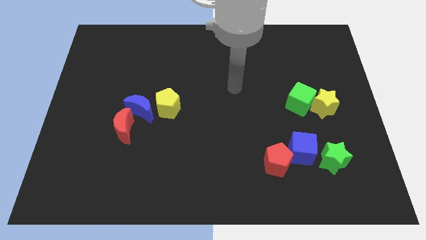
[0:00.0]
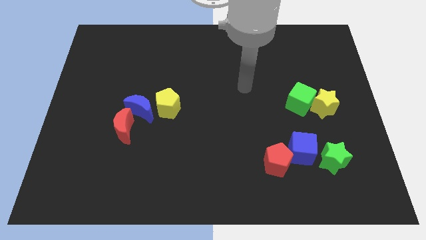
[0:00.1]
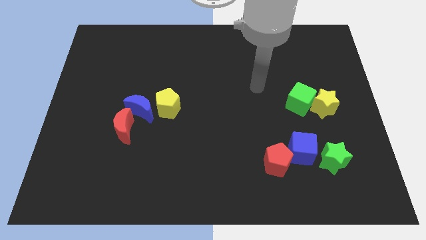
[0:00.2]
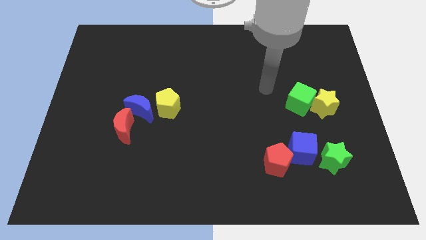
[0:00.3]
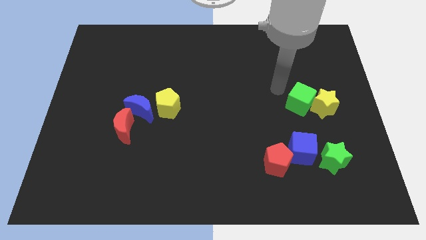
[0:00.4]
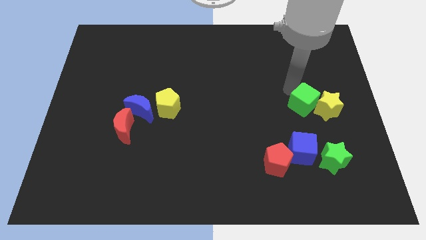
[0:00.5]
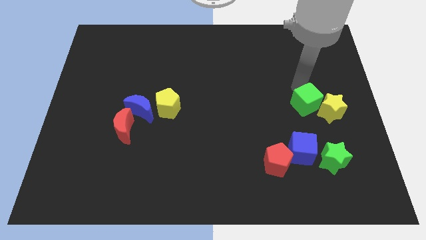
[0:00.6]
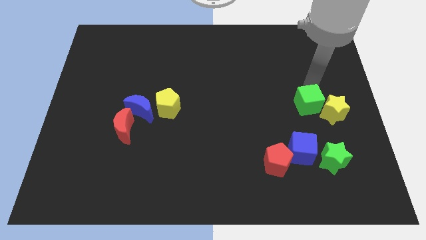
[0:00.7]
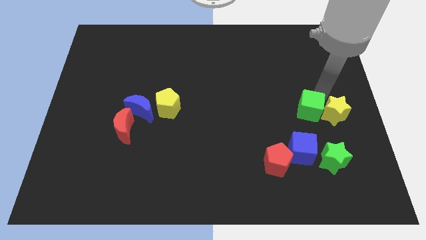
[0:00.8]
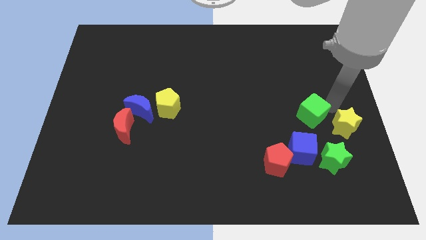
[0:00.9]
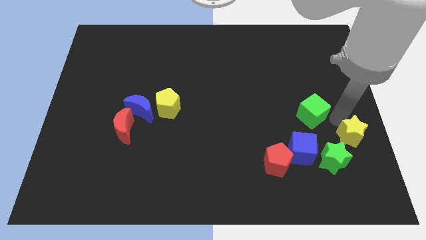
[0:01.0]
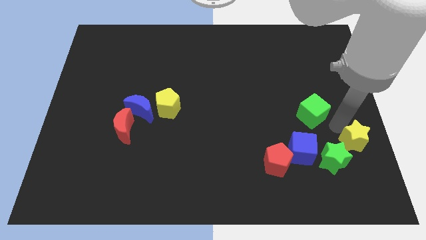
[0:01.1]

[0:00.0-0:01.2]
separate the green cube from the yellow star

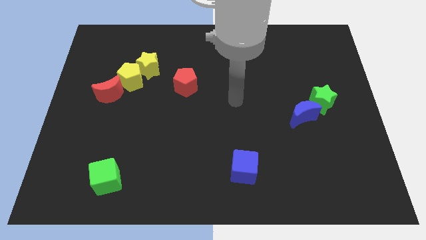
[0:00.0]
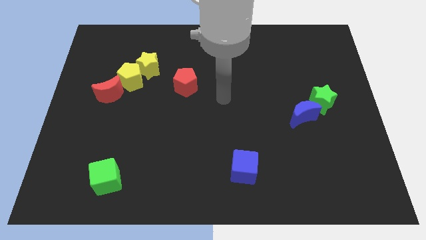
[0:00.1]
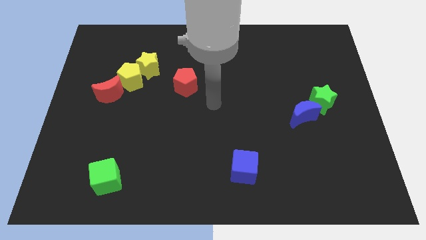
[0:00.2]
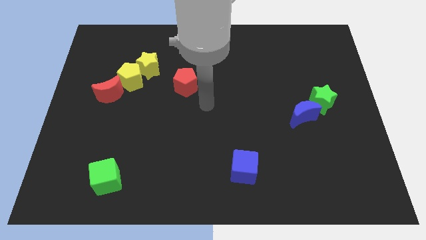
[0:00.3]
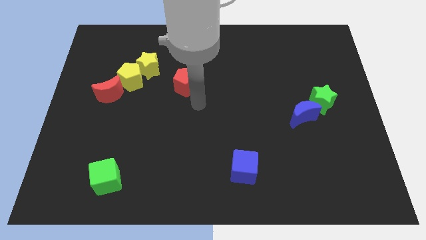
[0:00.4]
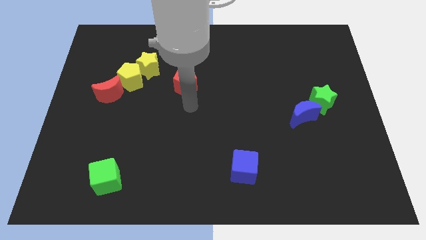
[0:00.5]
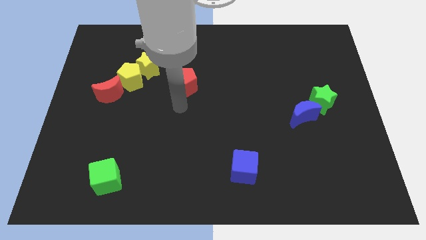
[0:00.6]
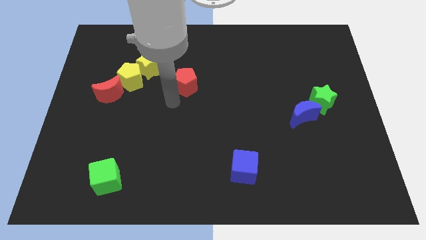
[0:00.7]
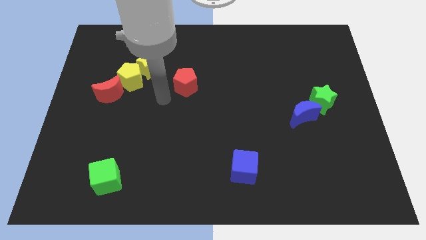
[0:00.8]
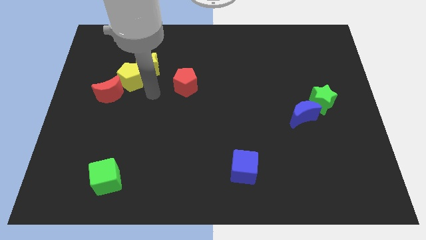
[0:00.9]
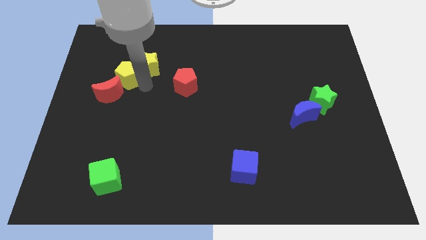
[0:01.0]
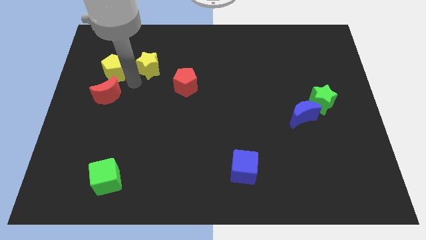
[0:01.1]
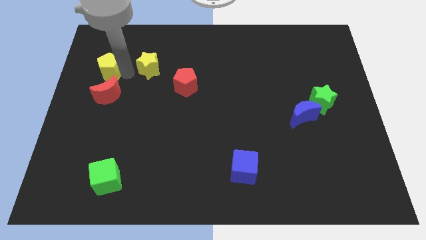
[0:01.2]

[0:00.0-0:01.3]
move the yellow star away from the yellow pentagon

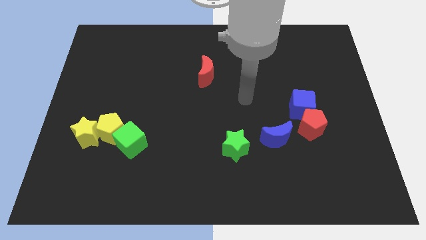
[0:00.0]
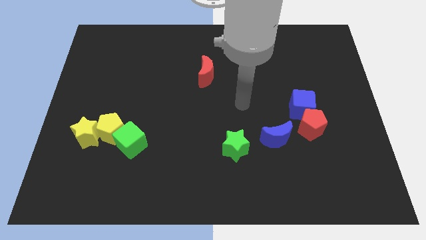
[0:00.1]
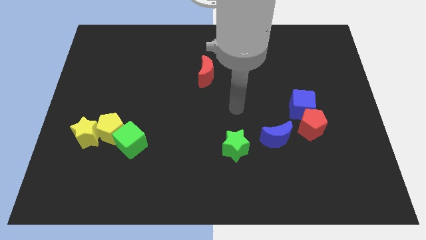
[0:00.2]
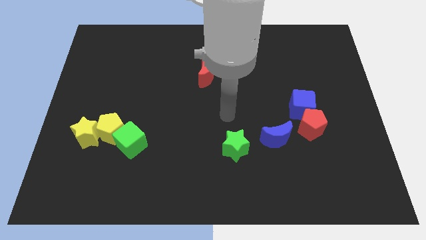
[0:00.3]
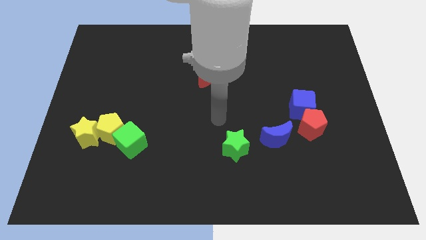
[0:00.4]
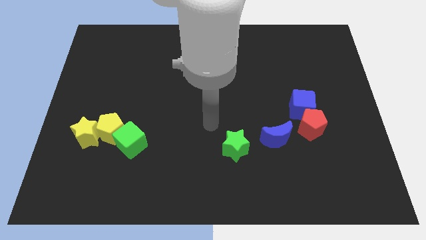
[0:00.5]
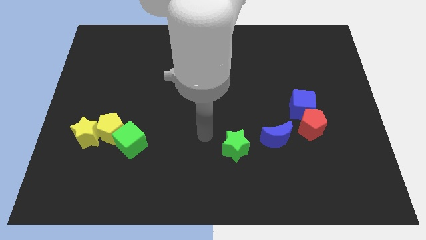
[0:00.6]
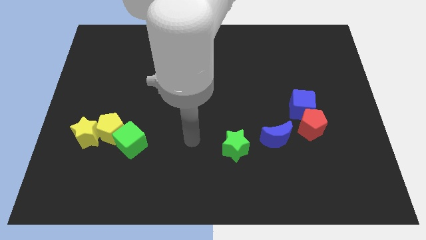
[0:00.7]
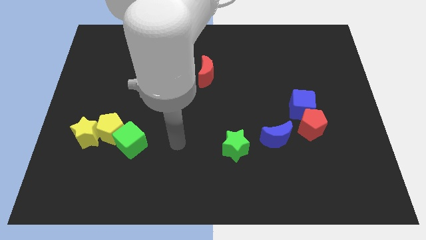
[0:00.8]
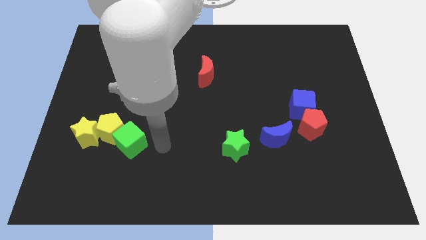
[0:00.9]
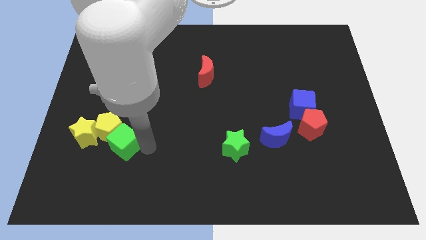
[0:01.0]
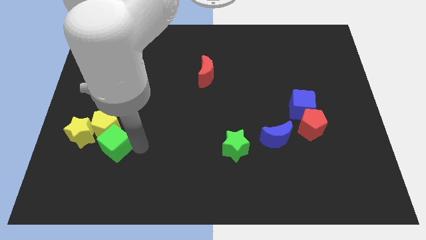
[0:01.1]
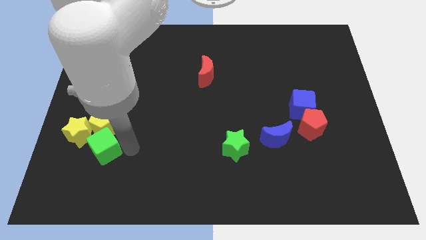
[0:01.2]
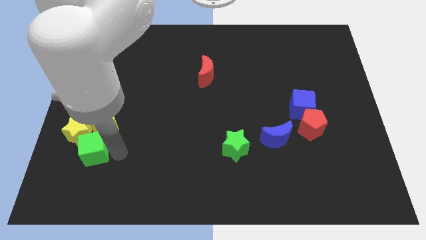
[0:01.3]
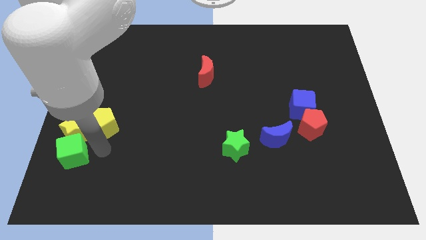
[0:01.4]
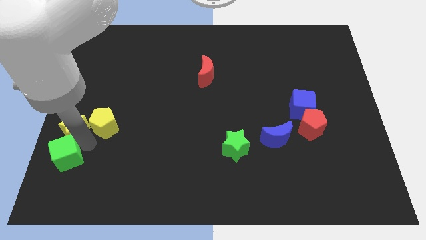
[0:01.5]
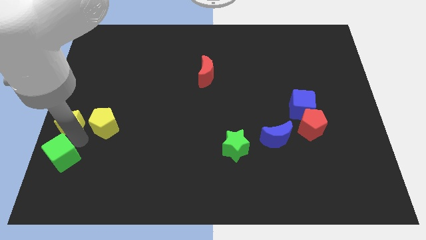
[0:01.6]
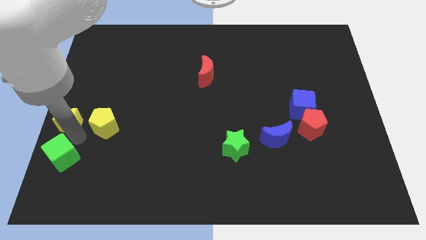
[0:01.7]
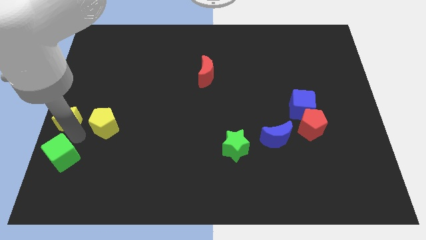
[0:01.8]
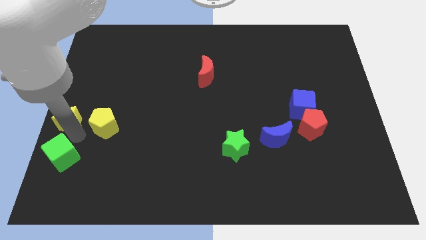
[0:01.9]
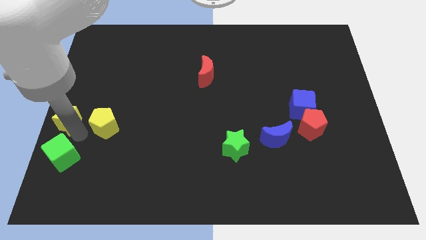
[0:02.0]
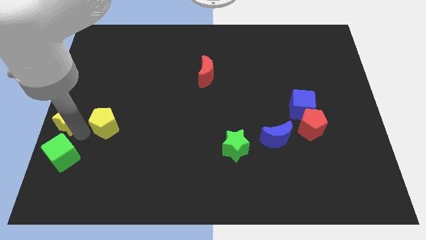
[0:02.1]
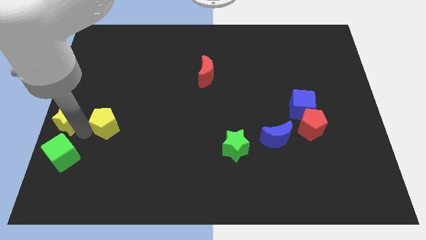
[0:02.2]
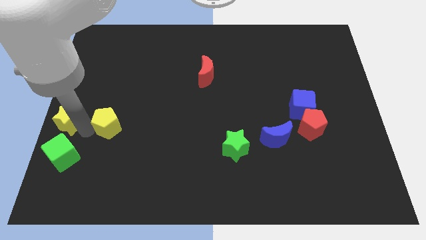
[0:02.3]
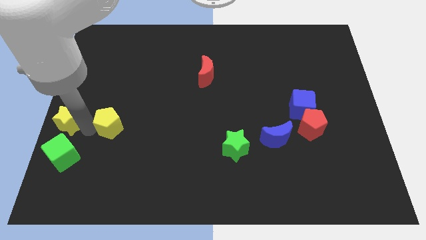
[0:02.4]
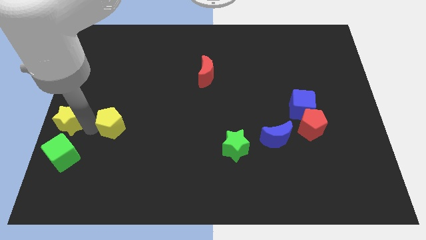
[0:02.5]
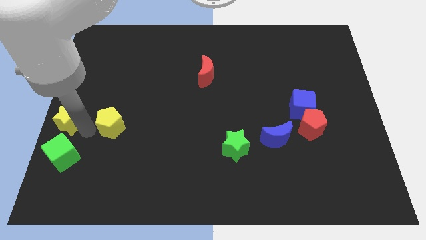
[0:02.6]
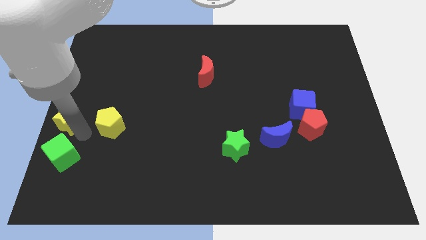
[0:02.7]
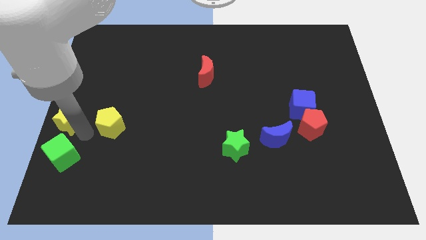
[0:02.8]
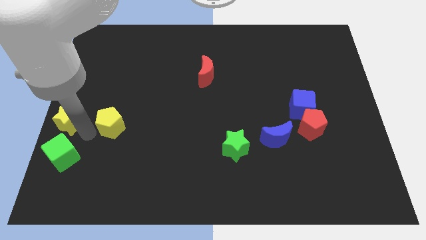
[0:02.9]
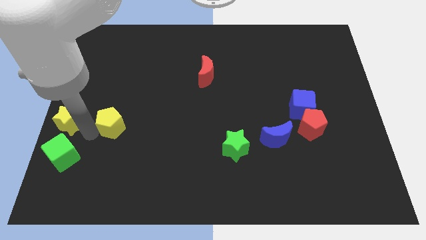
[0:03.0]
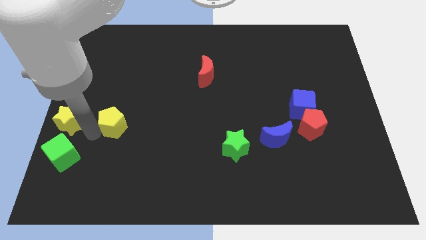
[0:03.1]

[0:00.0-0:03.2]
pull the yellow pentagon apart from the yellow star and green cube

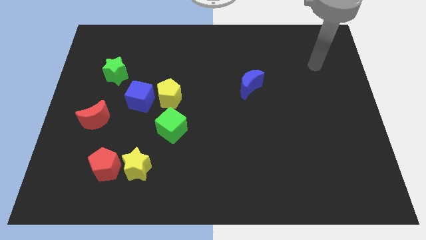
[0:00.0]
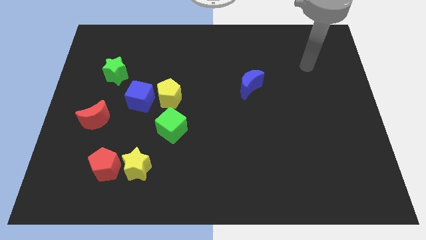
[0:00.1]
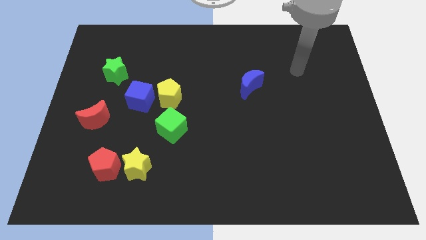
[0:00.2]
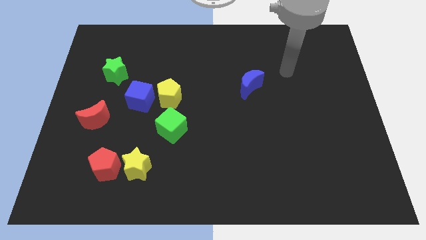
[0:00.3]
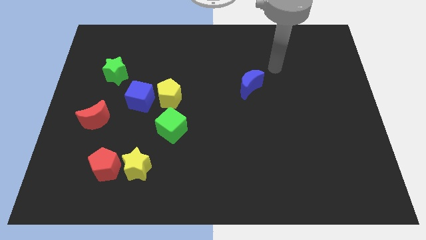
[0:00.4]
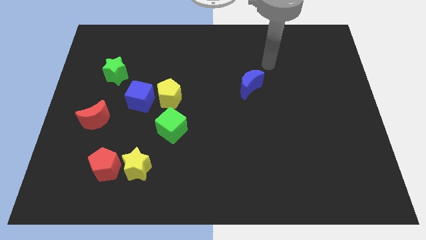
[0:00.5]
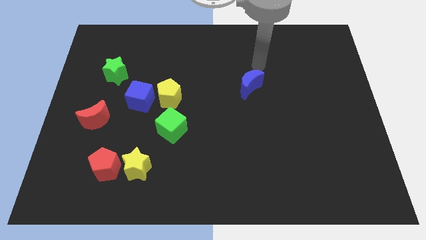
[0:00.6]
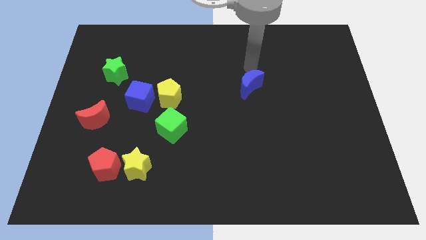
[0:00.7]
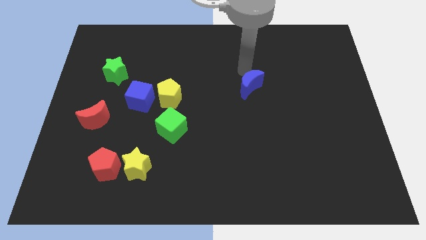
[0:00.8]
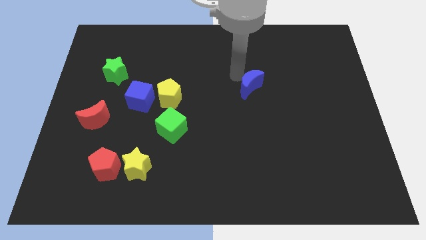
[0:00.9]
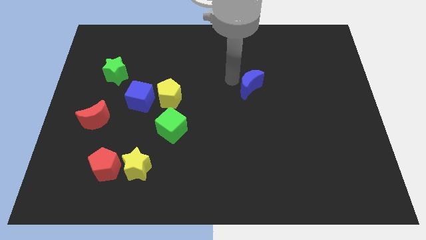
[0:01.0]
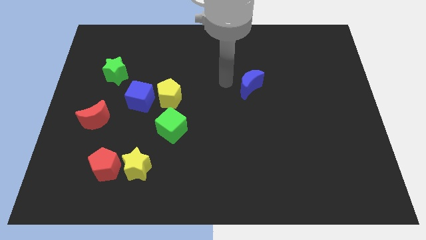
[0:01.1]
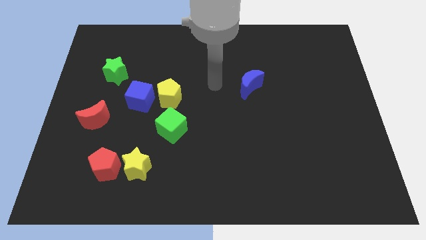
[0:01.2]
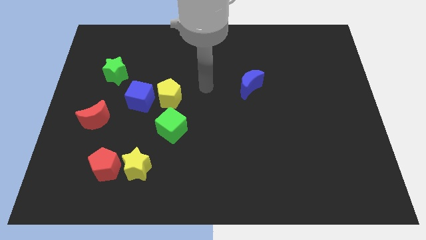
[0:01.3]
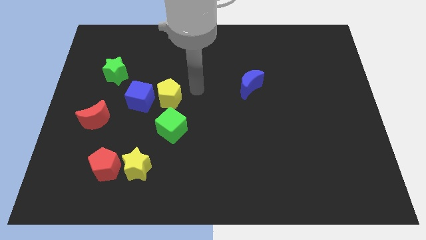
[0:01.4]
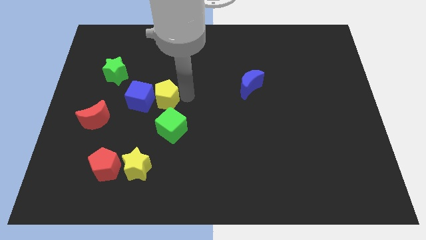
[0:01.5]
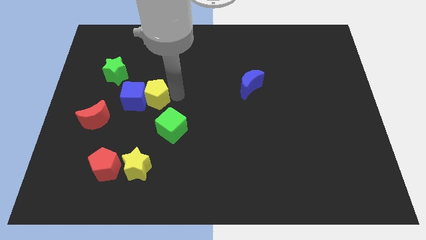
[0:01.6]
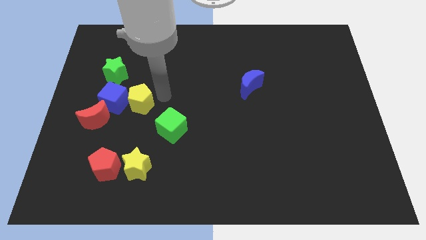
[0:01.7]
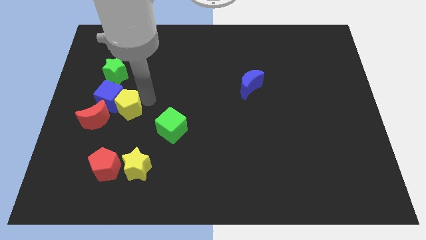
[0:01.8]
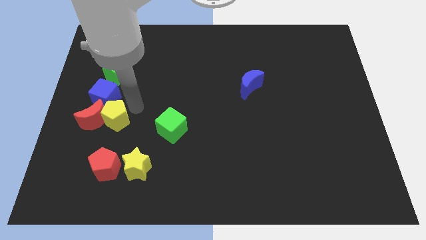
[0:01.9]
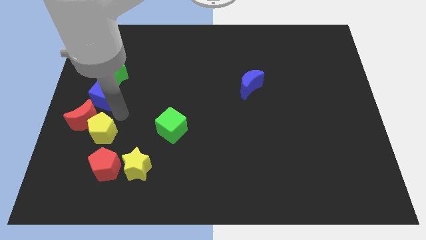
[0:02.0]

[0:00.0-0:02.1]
move the blue cube away from the yellow pentagon

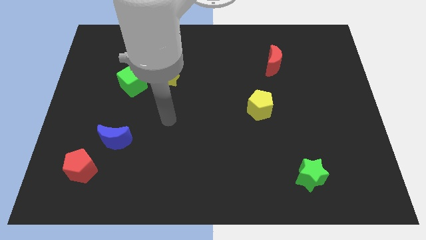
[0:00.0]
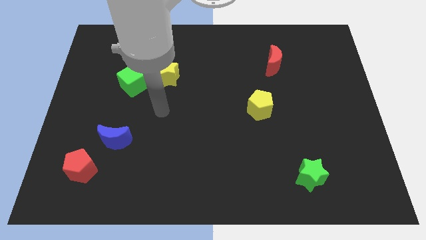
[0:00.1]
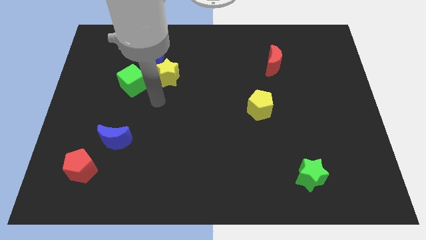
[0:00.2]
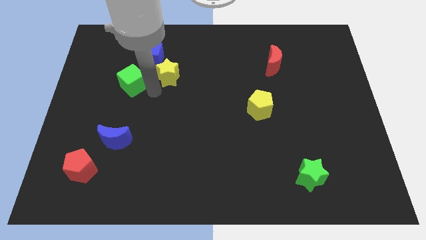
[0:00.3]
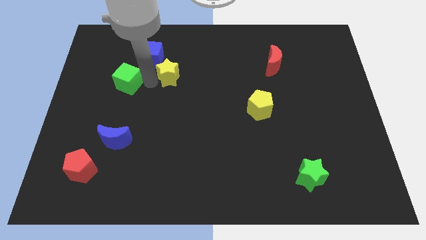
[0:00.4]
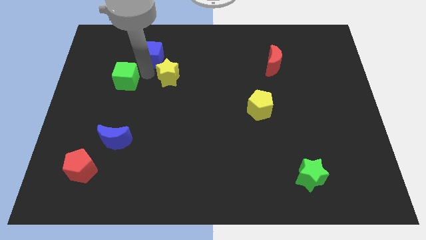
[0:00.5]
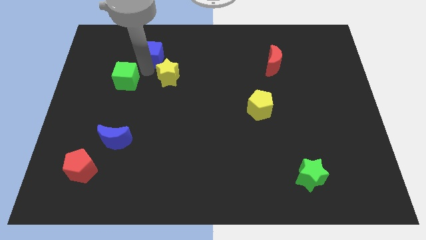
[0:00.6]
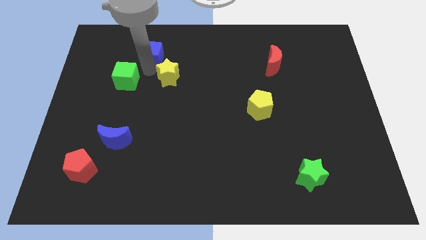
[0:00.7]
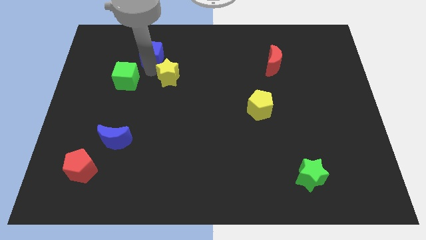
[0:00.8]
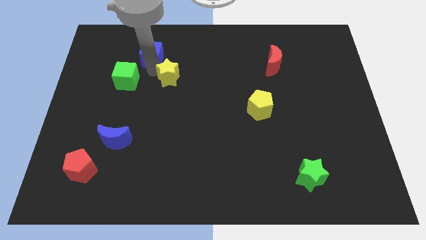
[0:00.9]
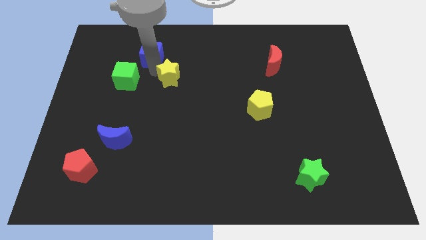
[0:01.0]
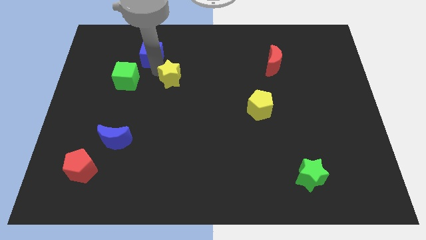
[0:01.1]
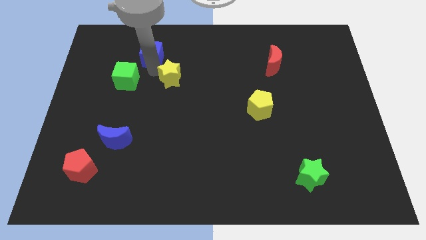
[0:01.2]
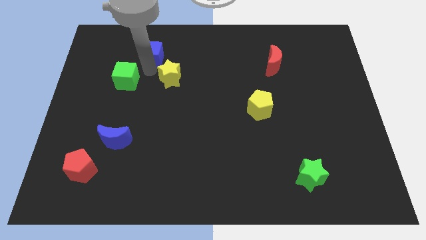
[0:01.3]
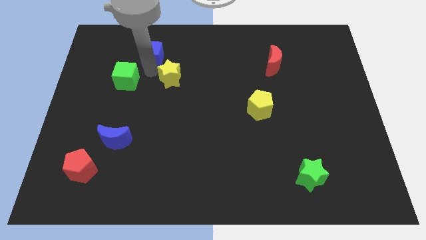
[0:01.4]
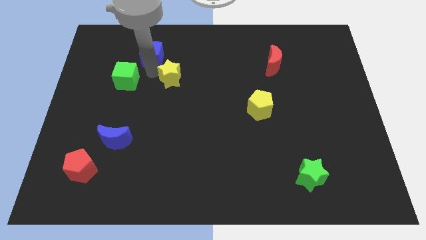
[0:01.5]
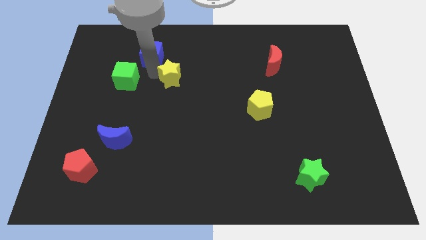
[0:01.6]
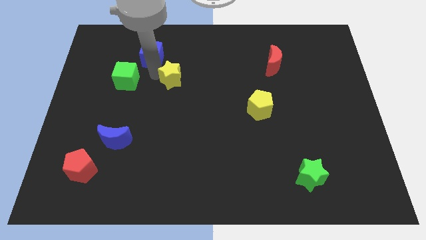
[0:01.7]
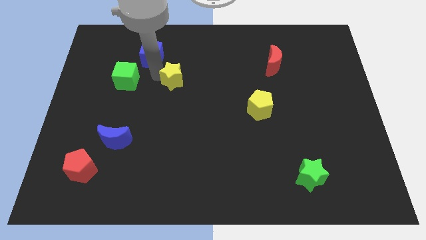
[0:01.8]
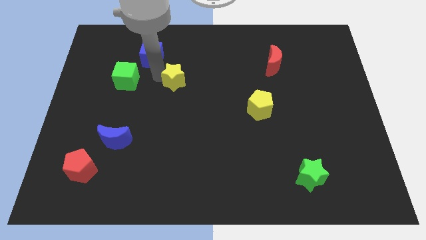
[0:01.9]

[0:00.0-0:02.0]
separate the yellow star from the blue cube and green cube
